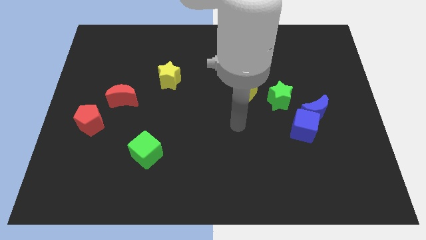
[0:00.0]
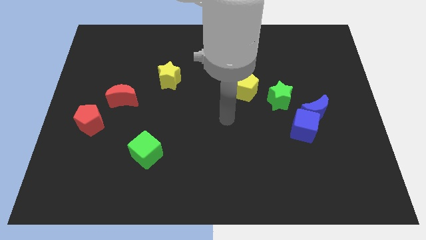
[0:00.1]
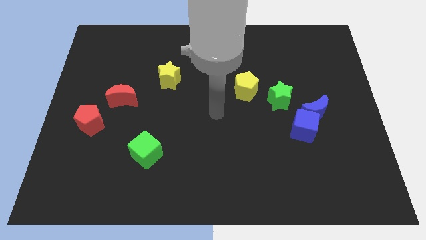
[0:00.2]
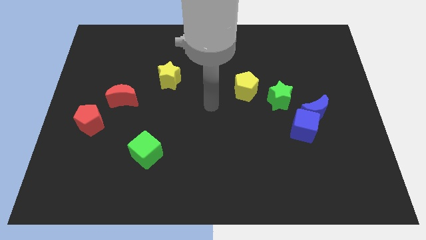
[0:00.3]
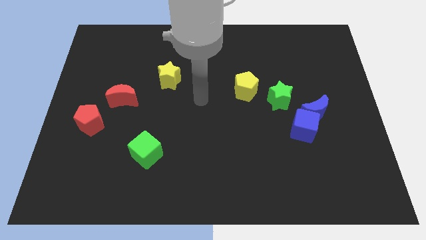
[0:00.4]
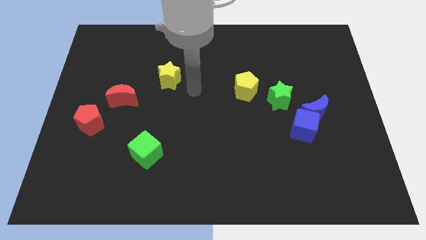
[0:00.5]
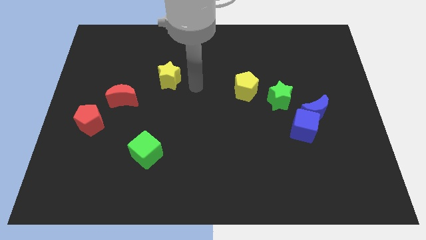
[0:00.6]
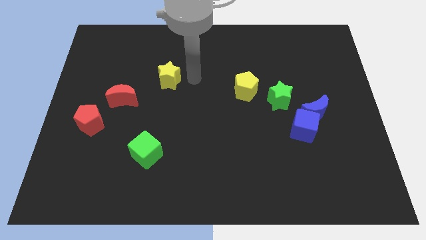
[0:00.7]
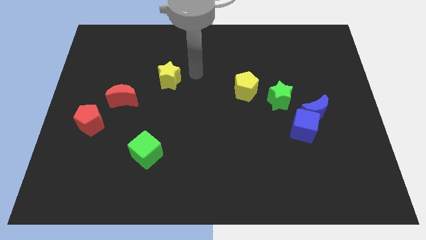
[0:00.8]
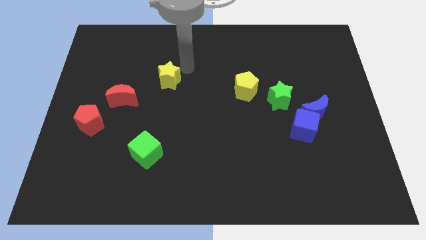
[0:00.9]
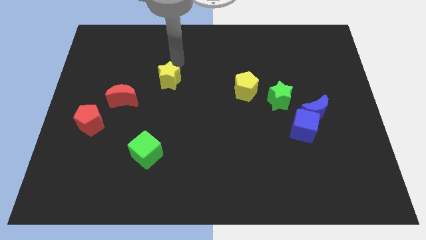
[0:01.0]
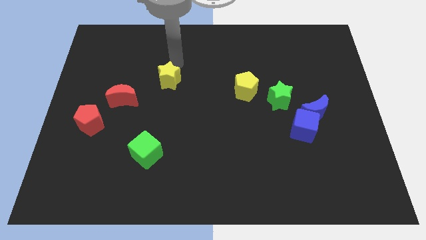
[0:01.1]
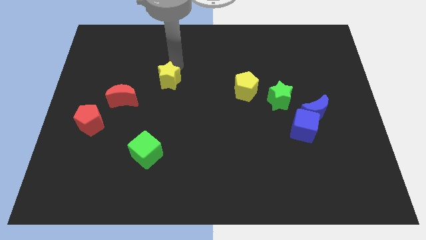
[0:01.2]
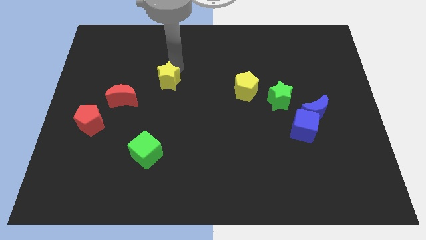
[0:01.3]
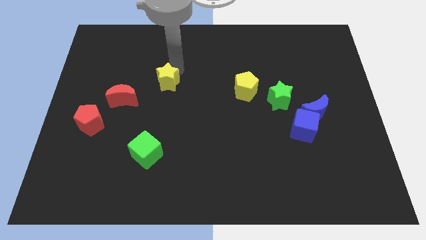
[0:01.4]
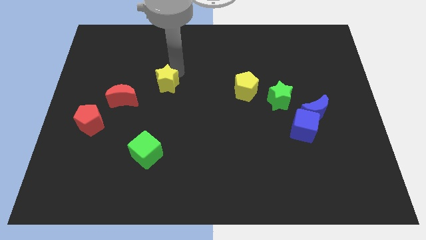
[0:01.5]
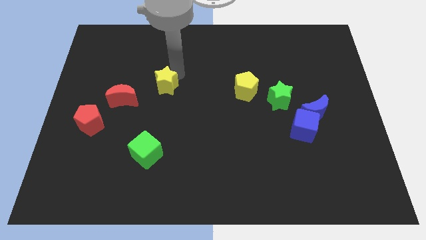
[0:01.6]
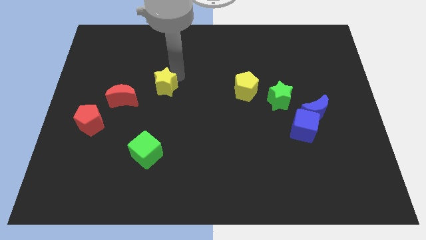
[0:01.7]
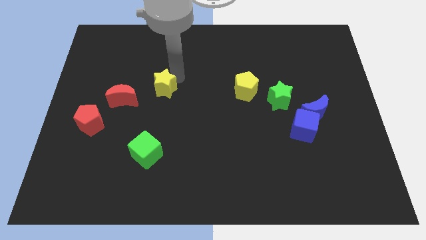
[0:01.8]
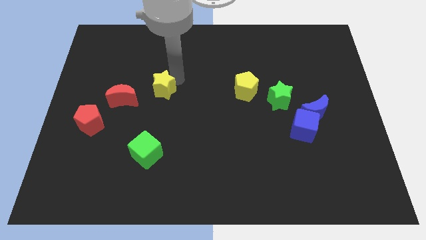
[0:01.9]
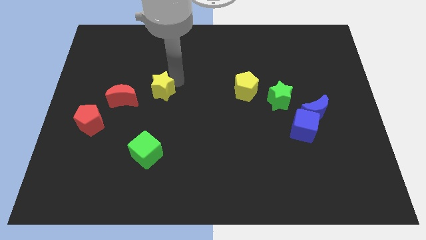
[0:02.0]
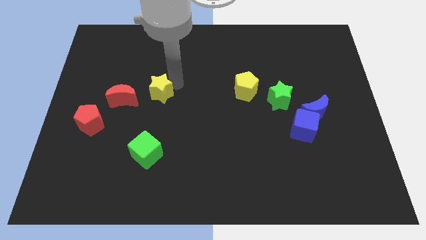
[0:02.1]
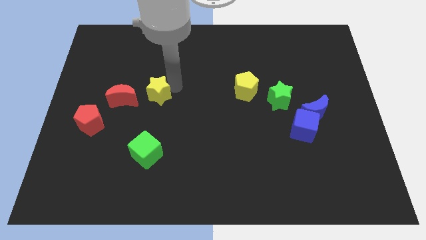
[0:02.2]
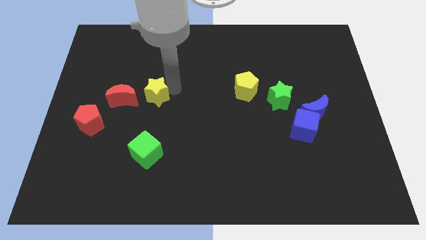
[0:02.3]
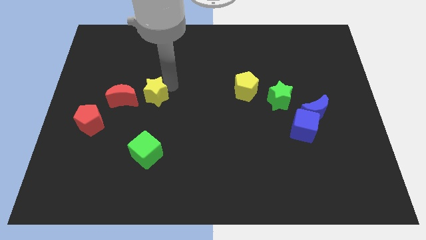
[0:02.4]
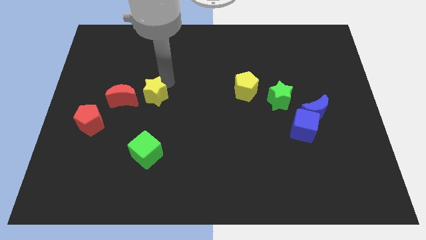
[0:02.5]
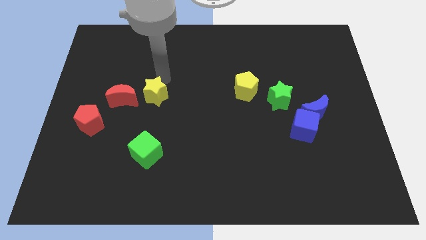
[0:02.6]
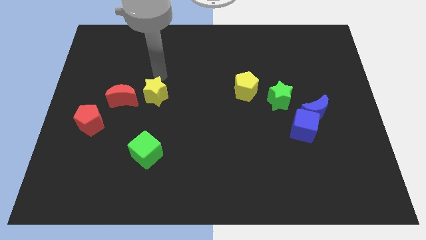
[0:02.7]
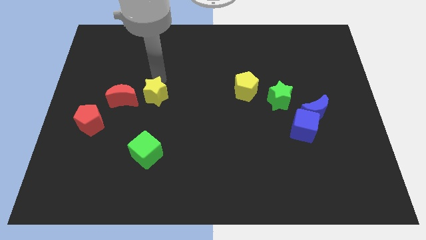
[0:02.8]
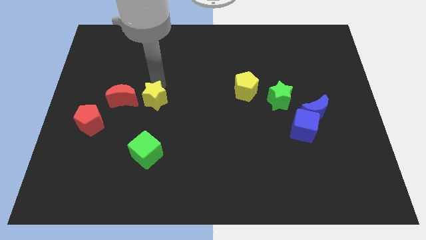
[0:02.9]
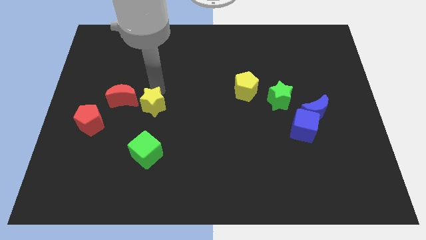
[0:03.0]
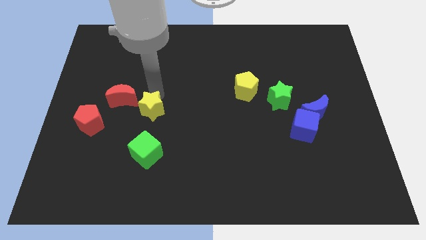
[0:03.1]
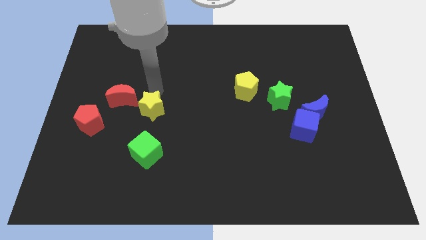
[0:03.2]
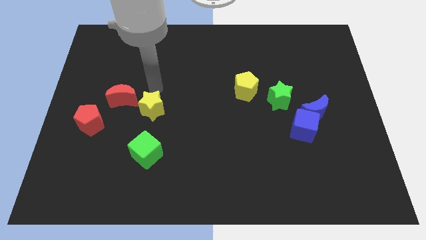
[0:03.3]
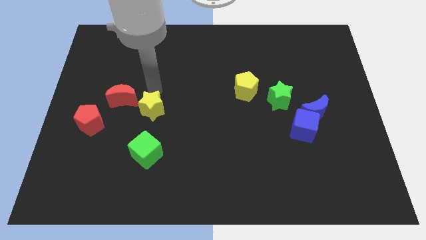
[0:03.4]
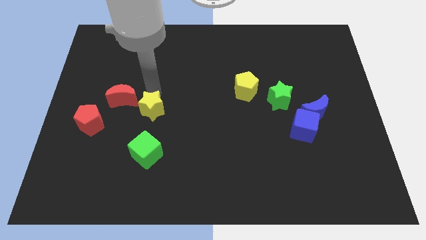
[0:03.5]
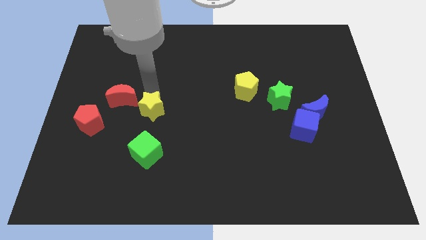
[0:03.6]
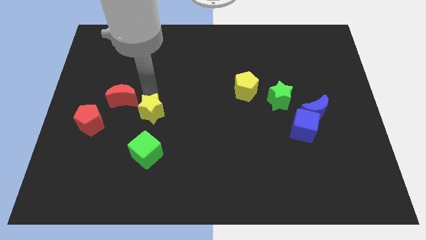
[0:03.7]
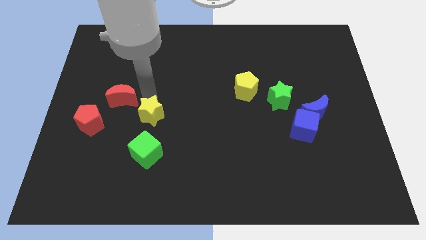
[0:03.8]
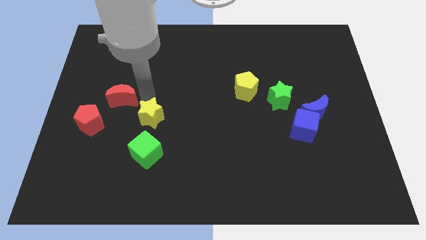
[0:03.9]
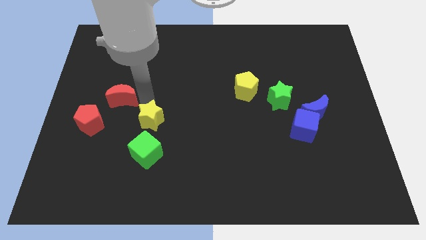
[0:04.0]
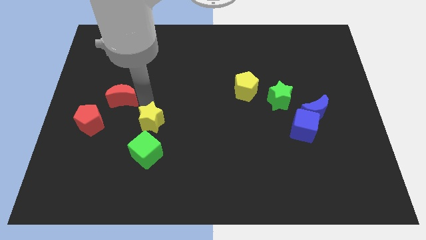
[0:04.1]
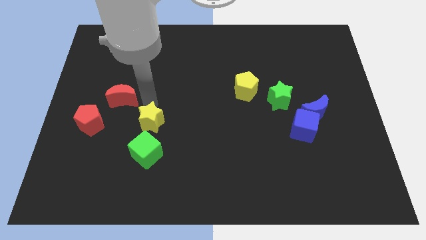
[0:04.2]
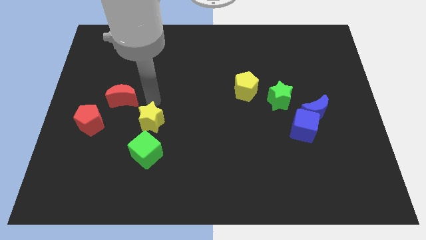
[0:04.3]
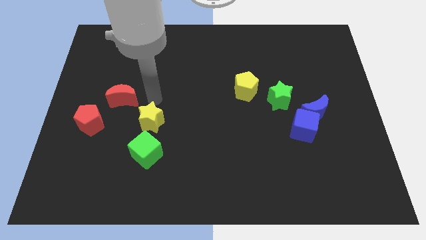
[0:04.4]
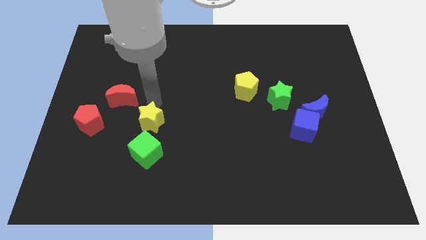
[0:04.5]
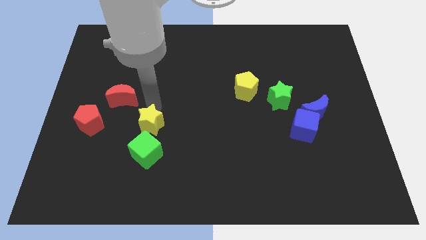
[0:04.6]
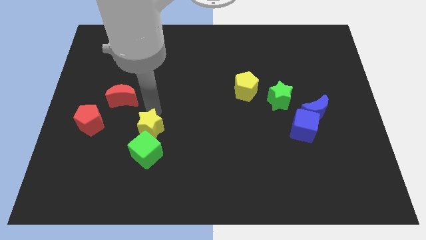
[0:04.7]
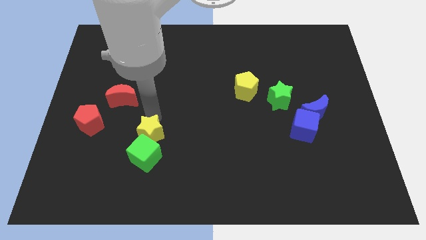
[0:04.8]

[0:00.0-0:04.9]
push the yellow star to the green cube

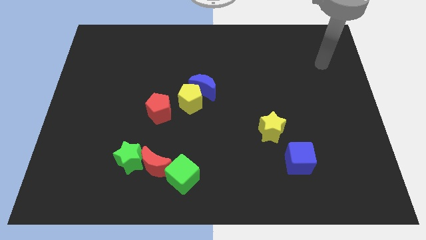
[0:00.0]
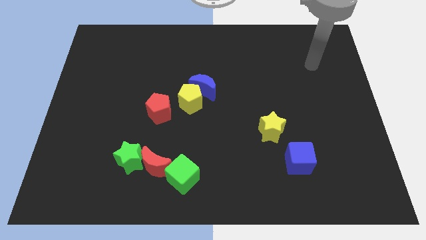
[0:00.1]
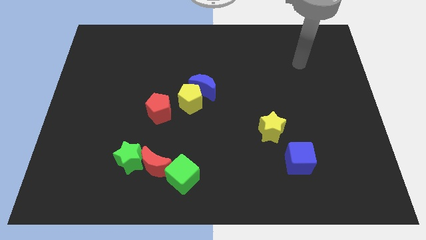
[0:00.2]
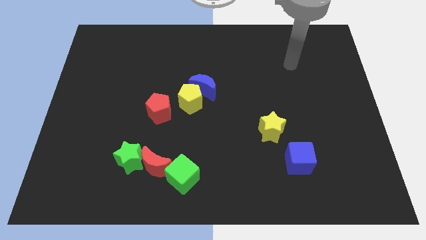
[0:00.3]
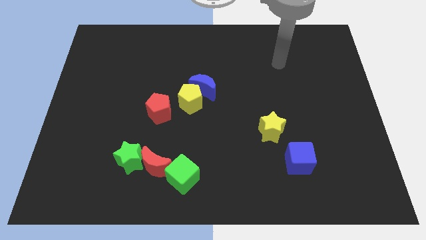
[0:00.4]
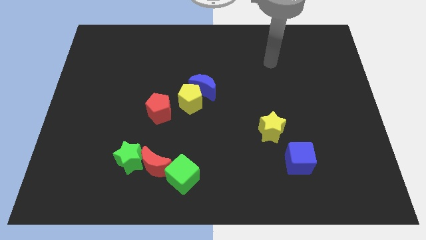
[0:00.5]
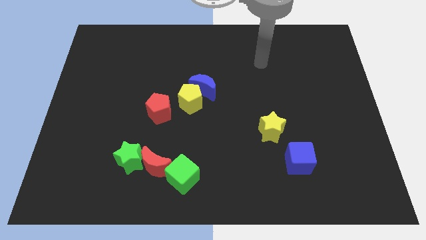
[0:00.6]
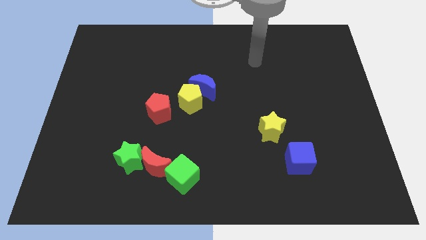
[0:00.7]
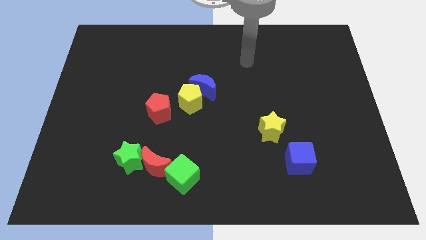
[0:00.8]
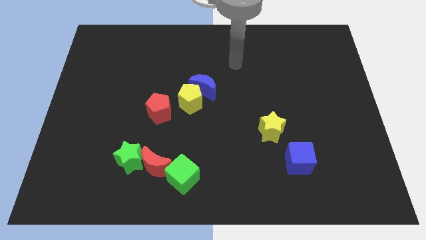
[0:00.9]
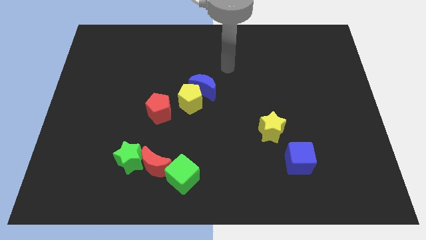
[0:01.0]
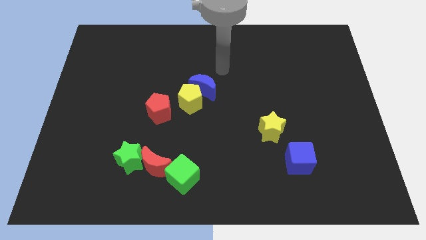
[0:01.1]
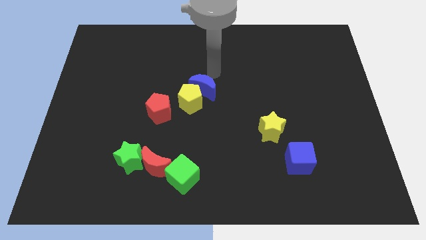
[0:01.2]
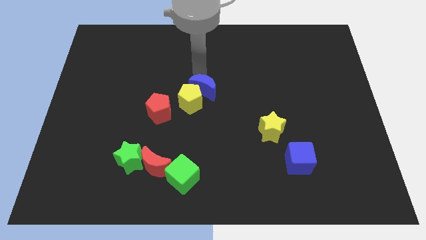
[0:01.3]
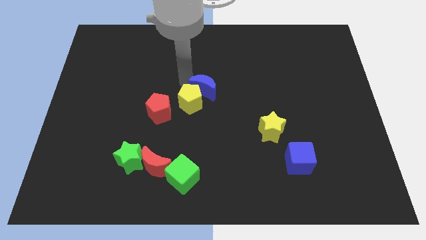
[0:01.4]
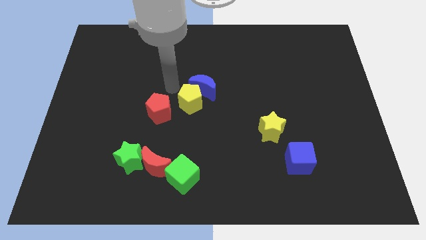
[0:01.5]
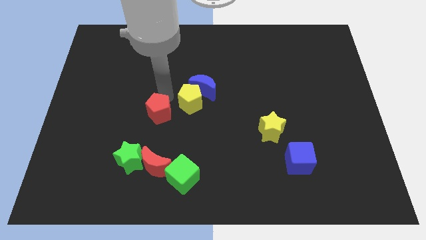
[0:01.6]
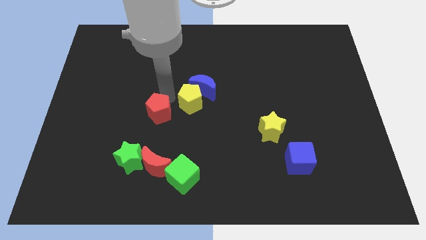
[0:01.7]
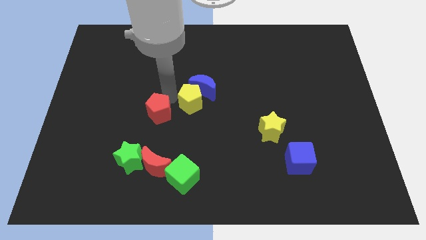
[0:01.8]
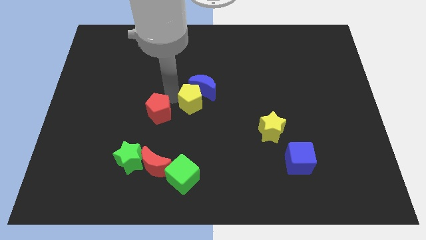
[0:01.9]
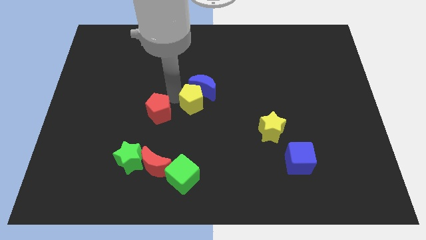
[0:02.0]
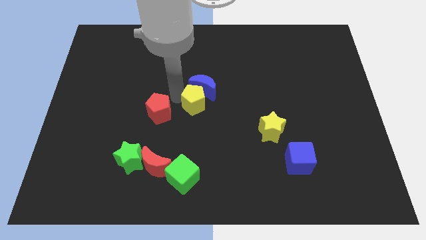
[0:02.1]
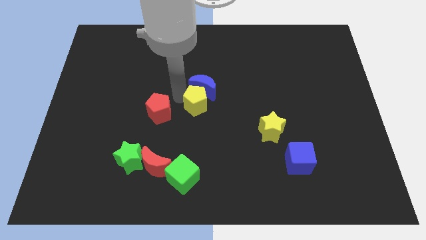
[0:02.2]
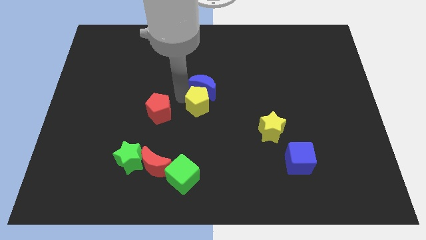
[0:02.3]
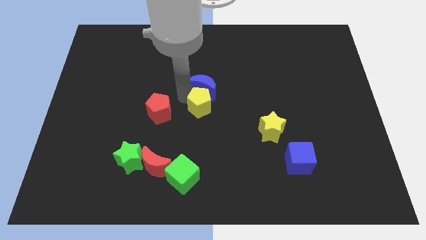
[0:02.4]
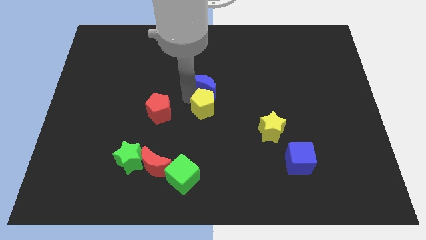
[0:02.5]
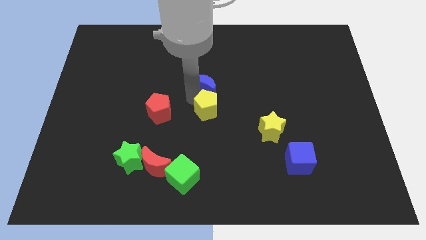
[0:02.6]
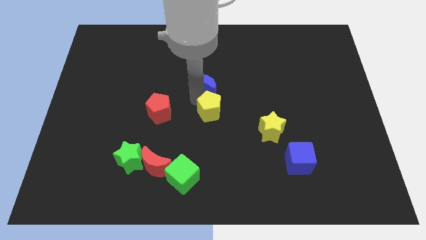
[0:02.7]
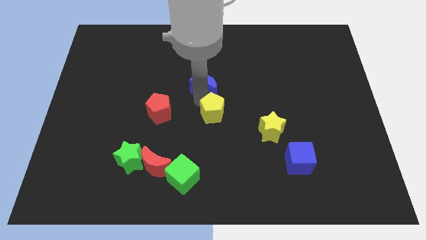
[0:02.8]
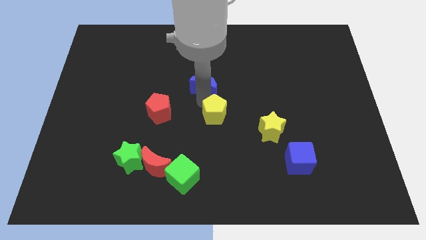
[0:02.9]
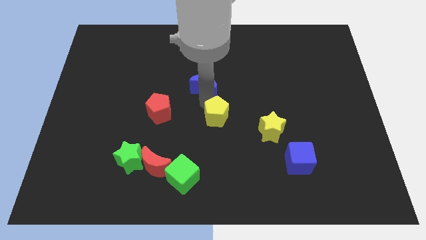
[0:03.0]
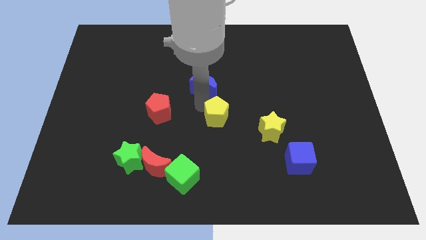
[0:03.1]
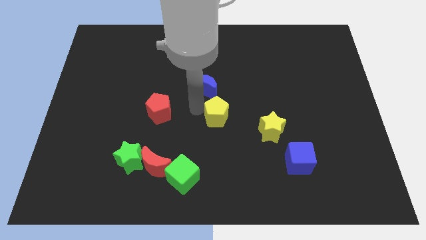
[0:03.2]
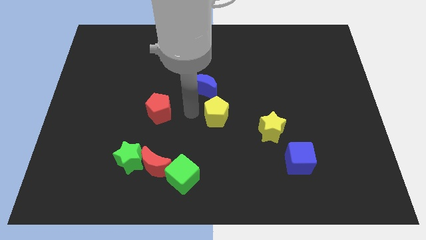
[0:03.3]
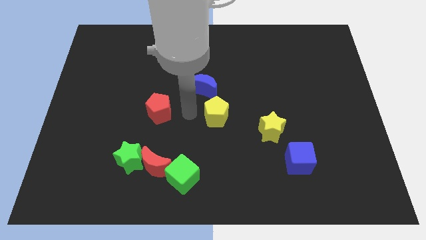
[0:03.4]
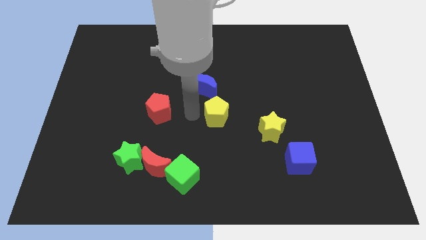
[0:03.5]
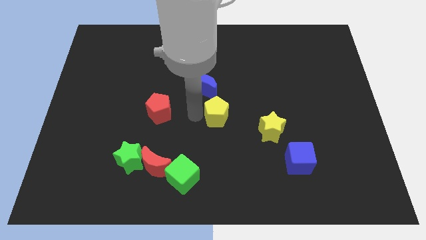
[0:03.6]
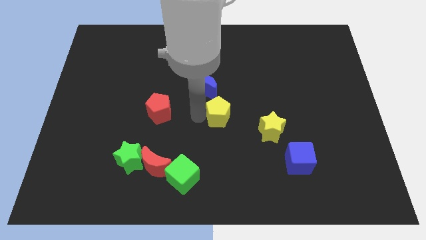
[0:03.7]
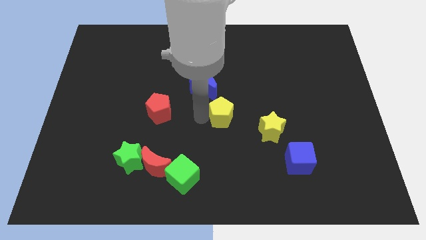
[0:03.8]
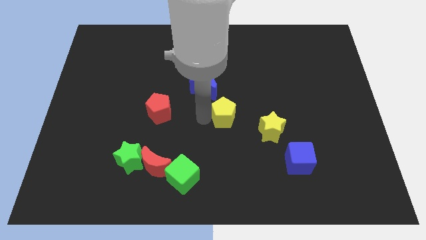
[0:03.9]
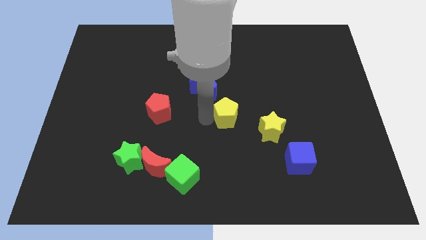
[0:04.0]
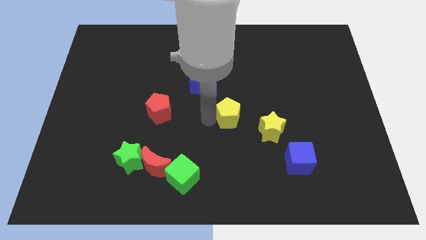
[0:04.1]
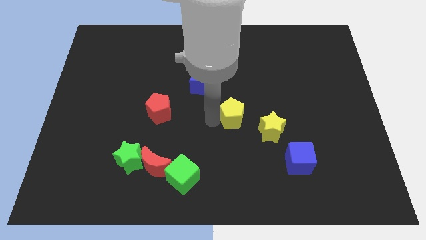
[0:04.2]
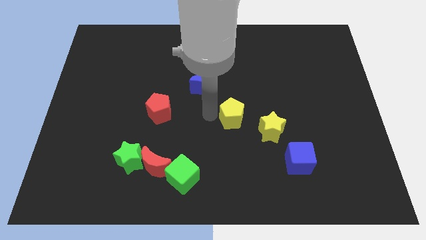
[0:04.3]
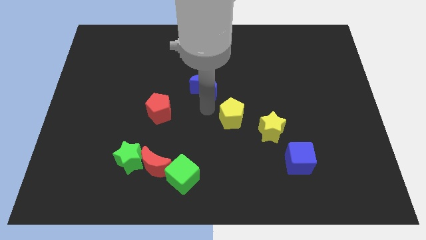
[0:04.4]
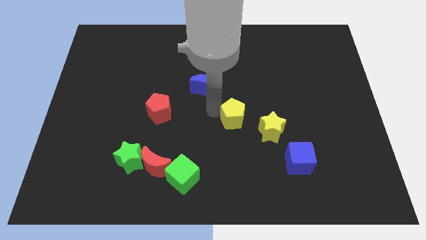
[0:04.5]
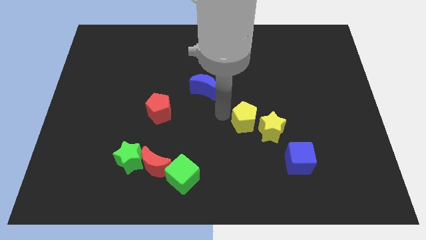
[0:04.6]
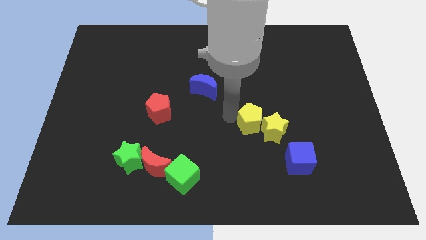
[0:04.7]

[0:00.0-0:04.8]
move the yellow pentagon towards the yellow star
